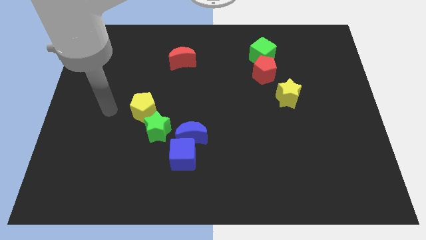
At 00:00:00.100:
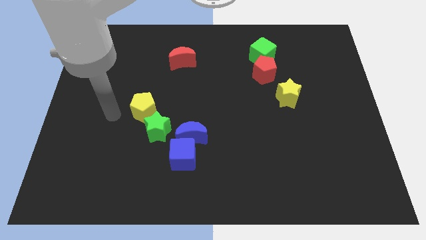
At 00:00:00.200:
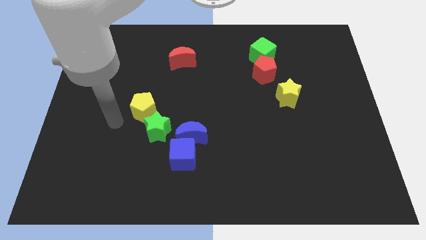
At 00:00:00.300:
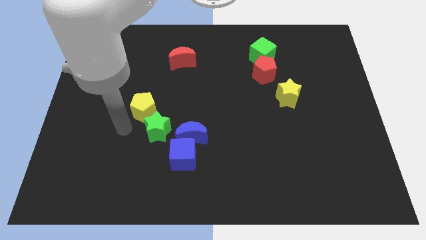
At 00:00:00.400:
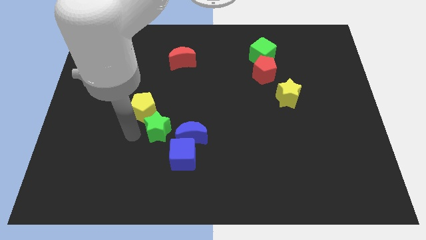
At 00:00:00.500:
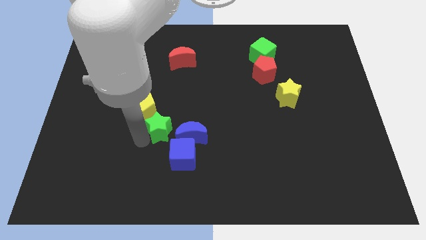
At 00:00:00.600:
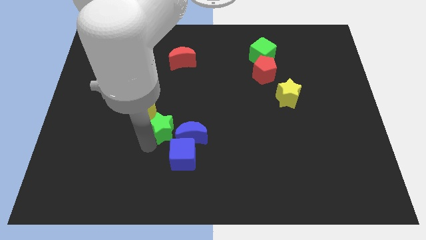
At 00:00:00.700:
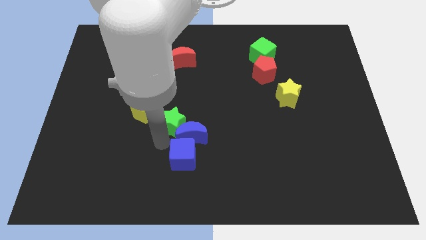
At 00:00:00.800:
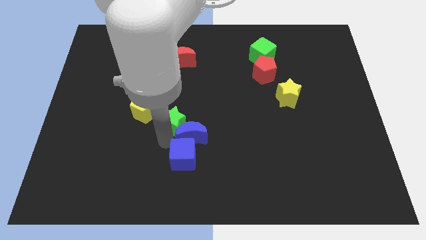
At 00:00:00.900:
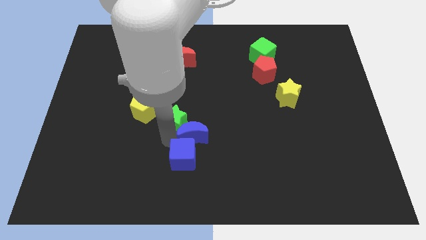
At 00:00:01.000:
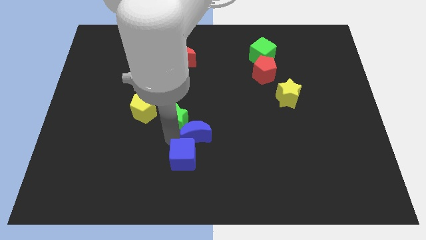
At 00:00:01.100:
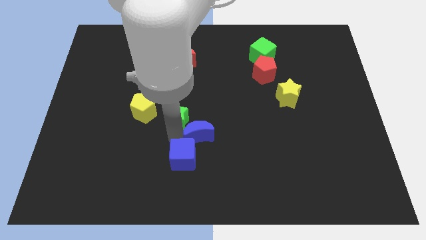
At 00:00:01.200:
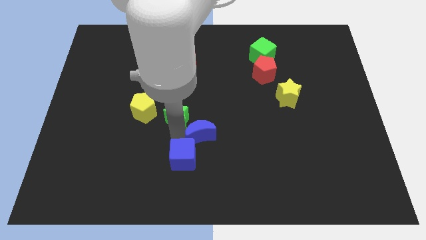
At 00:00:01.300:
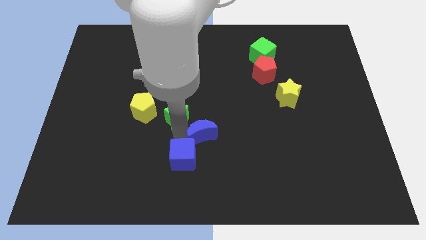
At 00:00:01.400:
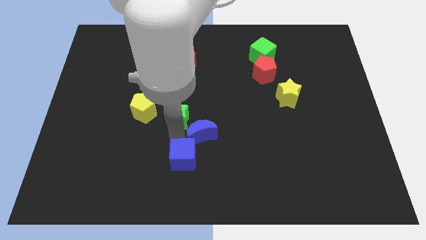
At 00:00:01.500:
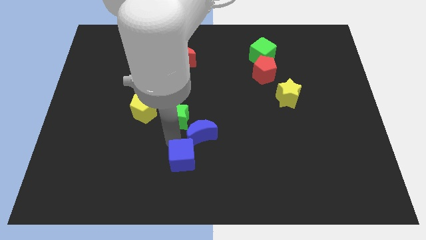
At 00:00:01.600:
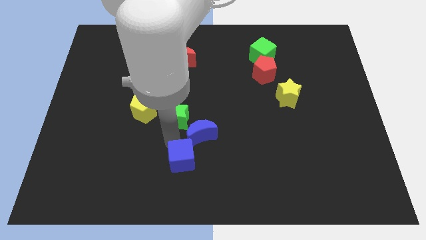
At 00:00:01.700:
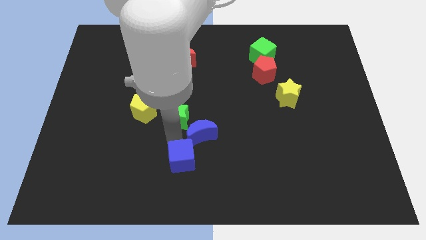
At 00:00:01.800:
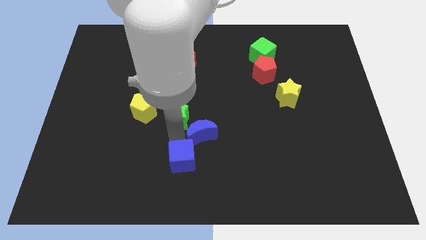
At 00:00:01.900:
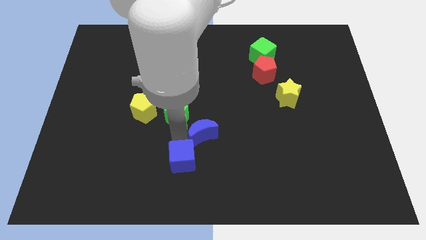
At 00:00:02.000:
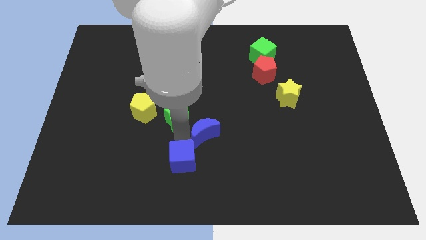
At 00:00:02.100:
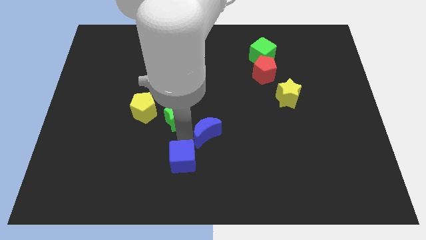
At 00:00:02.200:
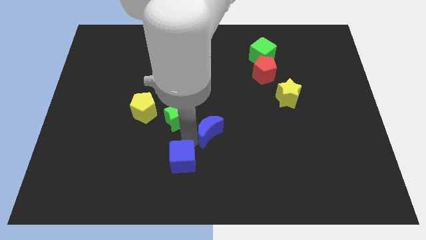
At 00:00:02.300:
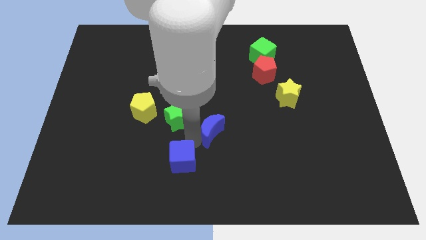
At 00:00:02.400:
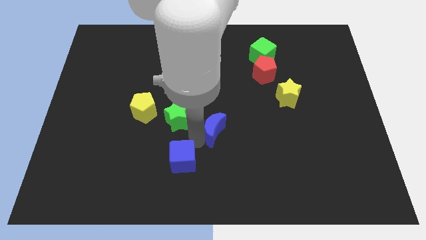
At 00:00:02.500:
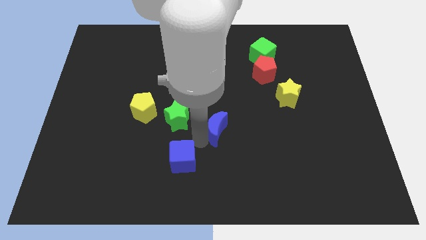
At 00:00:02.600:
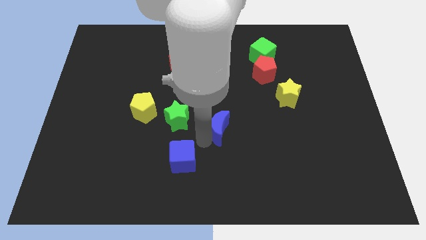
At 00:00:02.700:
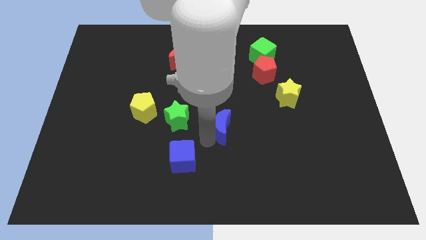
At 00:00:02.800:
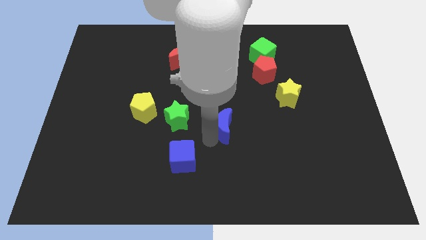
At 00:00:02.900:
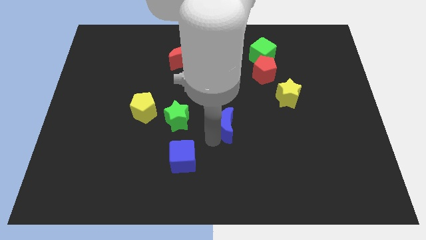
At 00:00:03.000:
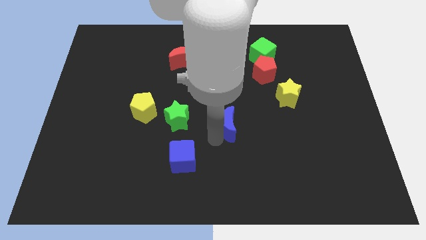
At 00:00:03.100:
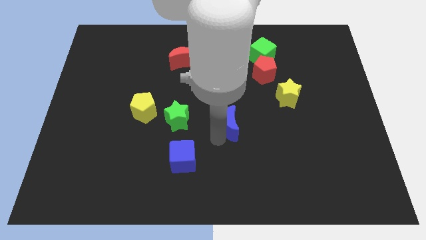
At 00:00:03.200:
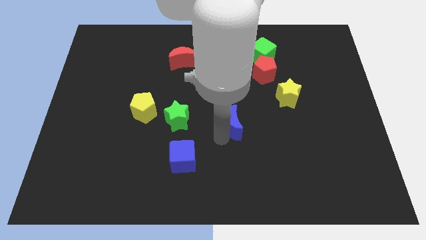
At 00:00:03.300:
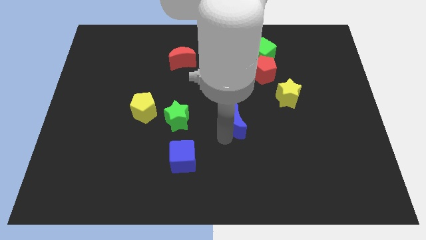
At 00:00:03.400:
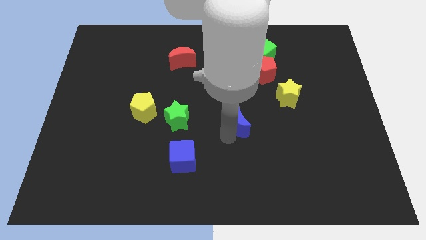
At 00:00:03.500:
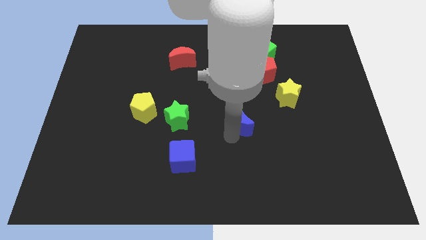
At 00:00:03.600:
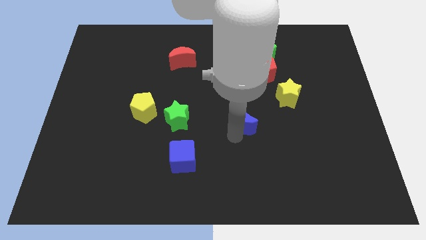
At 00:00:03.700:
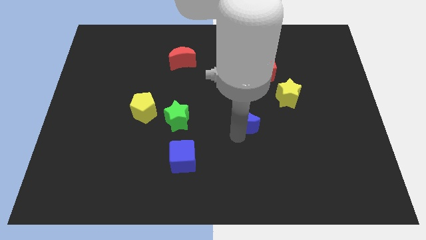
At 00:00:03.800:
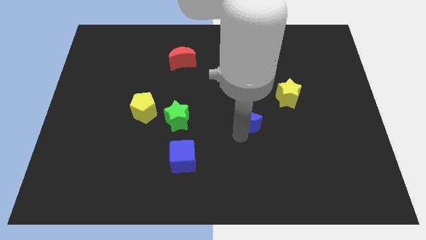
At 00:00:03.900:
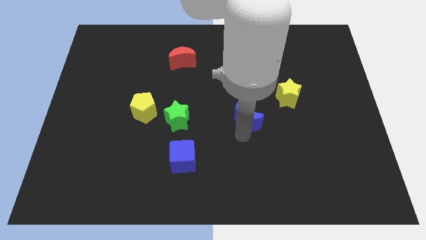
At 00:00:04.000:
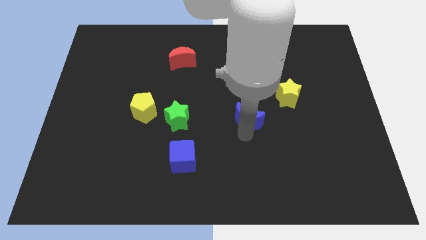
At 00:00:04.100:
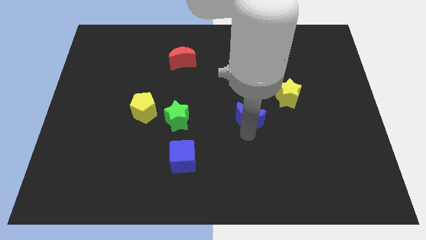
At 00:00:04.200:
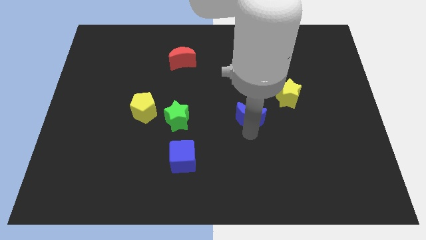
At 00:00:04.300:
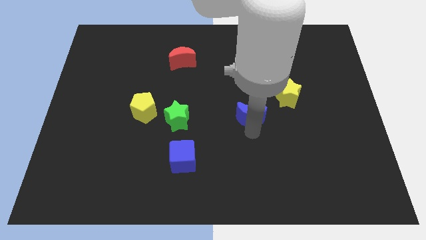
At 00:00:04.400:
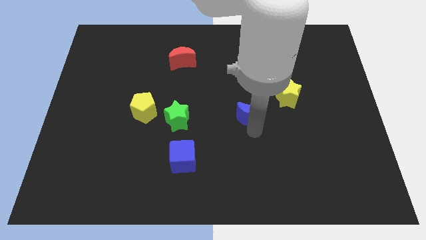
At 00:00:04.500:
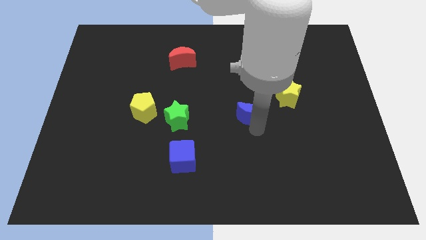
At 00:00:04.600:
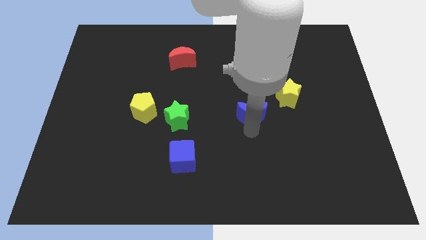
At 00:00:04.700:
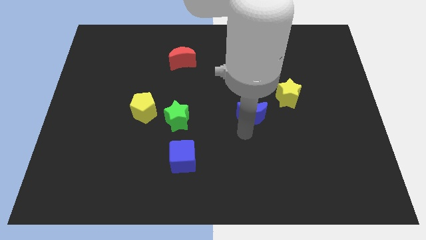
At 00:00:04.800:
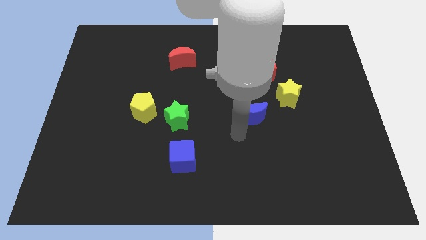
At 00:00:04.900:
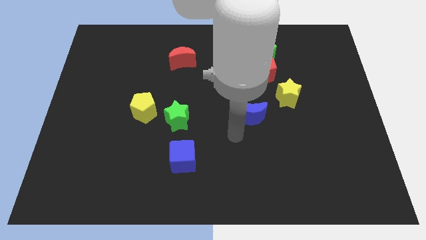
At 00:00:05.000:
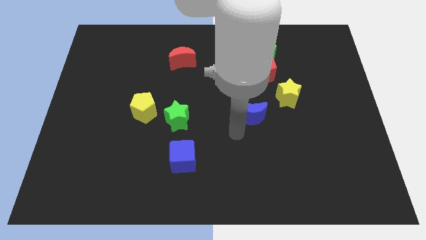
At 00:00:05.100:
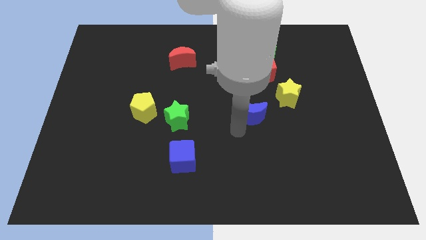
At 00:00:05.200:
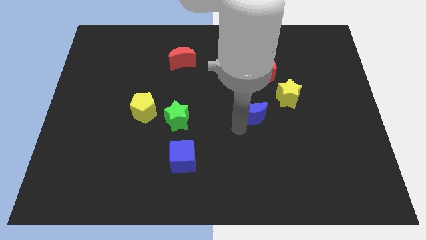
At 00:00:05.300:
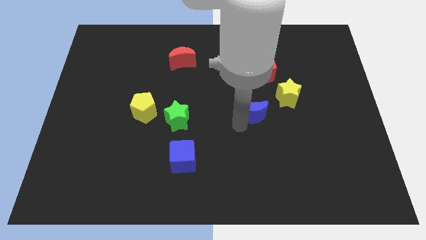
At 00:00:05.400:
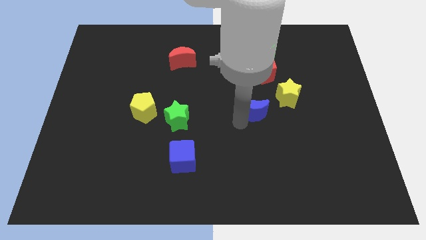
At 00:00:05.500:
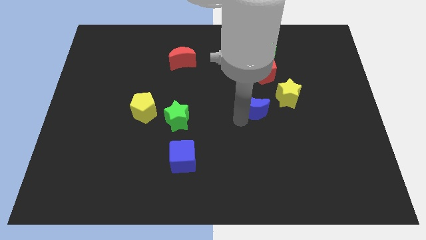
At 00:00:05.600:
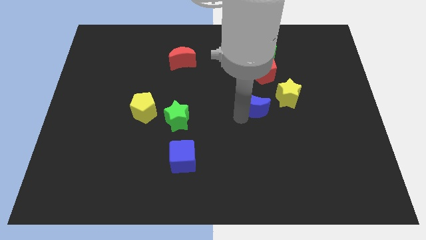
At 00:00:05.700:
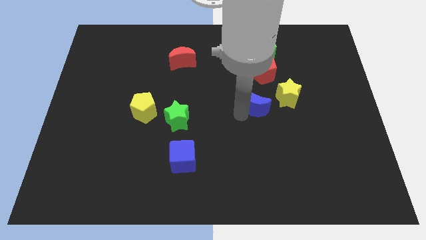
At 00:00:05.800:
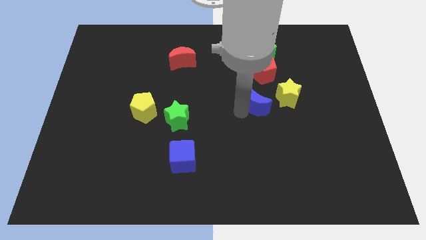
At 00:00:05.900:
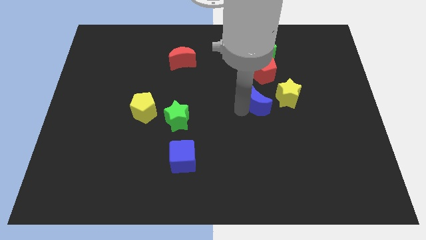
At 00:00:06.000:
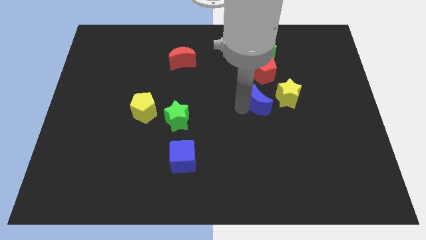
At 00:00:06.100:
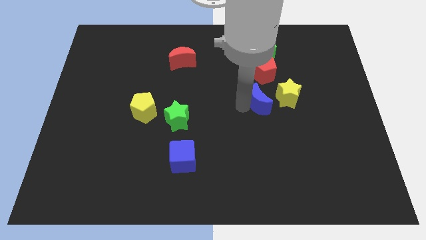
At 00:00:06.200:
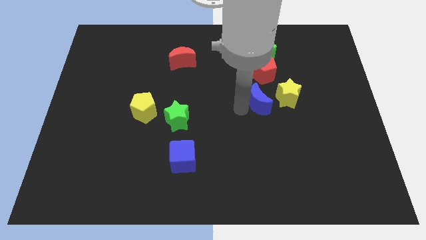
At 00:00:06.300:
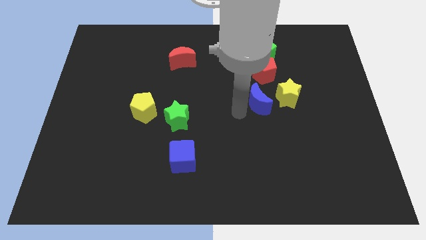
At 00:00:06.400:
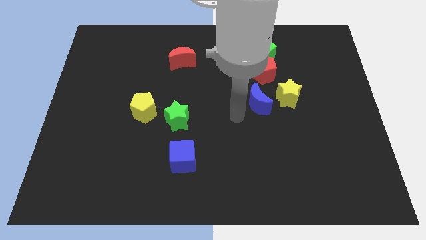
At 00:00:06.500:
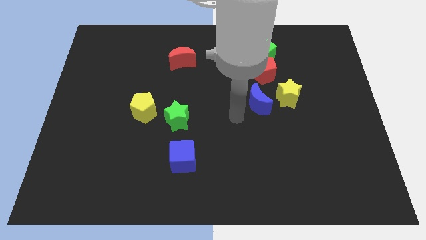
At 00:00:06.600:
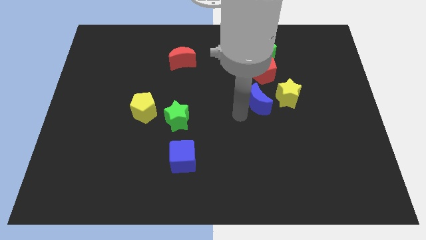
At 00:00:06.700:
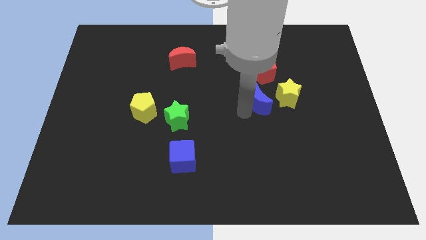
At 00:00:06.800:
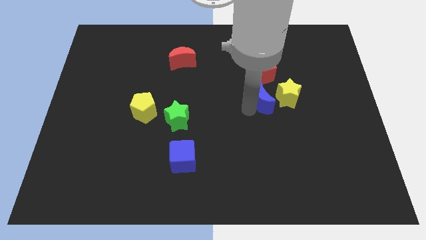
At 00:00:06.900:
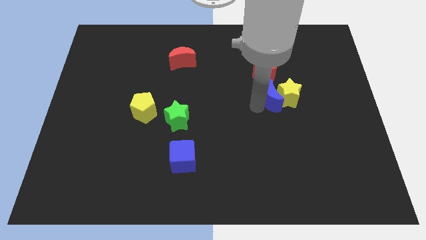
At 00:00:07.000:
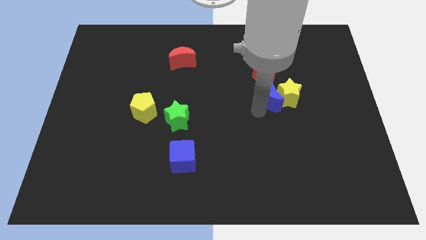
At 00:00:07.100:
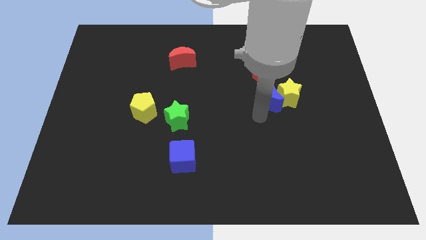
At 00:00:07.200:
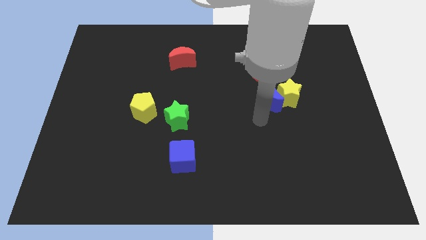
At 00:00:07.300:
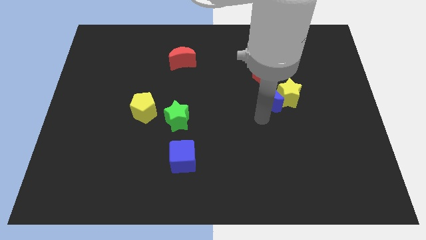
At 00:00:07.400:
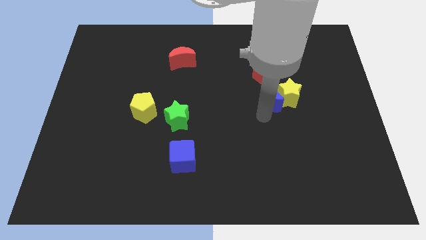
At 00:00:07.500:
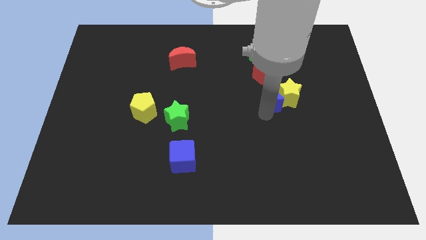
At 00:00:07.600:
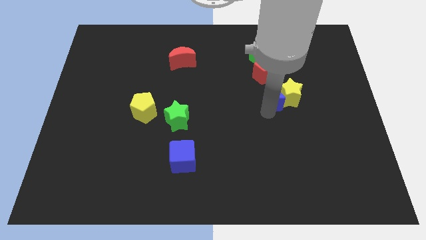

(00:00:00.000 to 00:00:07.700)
push the blue moon upwards and right diagonally

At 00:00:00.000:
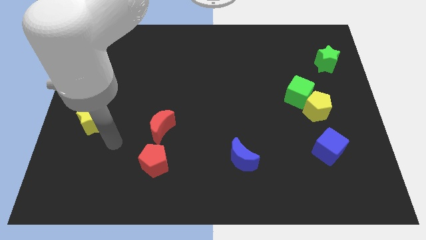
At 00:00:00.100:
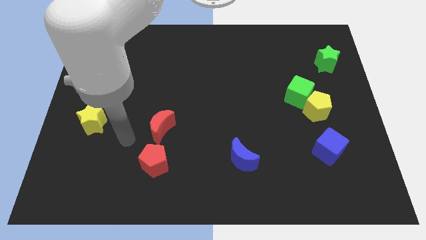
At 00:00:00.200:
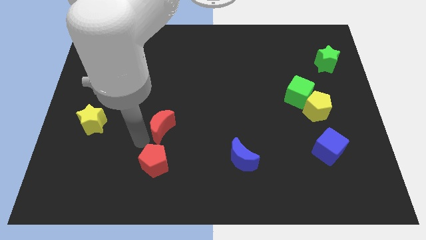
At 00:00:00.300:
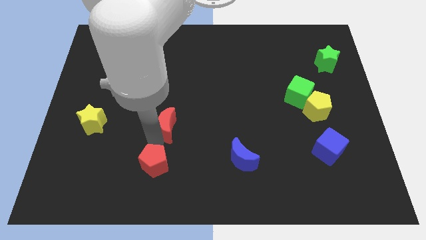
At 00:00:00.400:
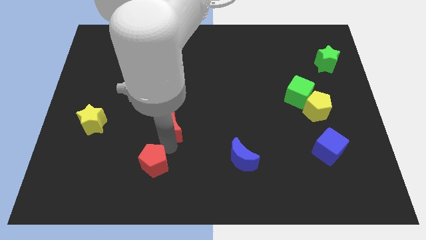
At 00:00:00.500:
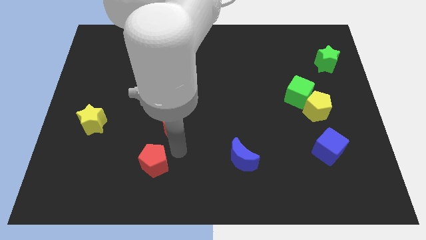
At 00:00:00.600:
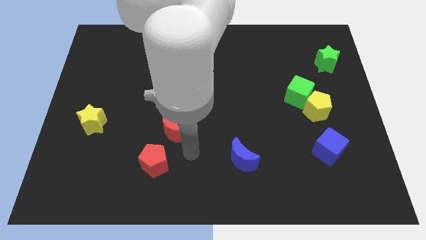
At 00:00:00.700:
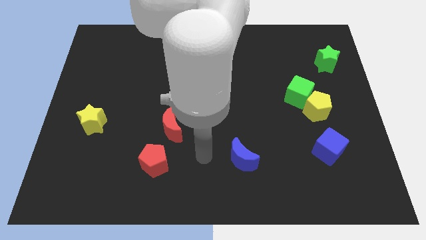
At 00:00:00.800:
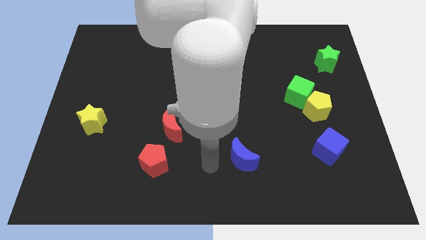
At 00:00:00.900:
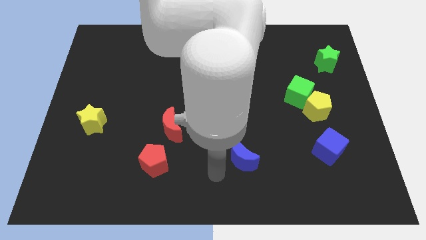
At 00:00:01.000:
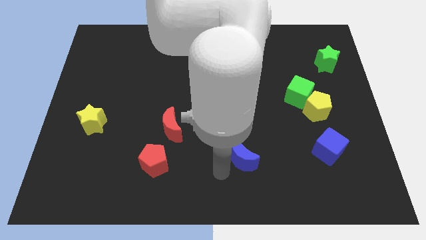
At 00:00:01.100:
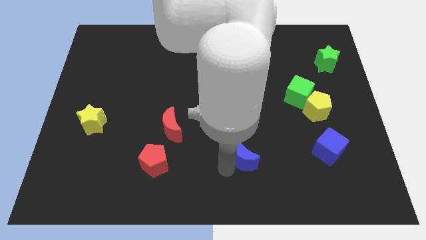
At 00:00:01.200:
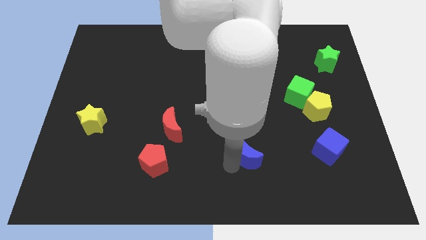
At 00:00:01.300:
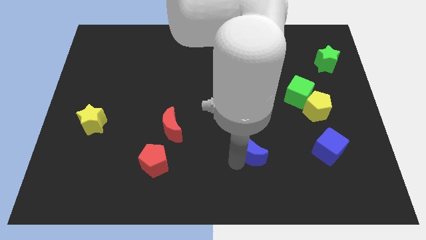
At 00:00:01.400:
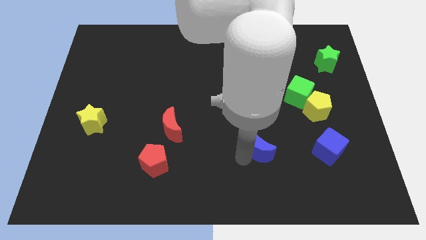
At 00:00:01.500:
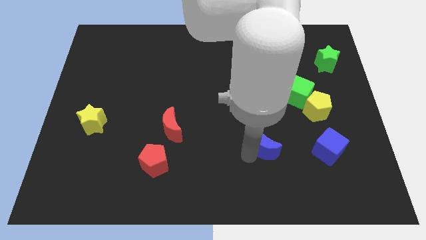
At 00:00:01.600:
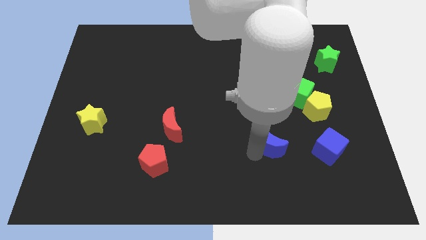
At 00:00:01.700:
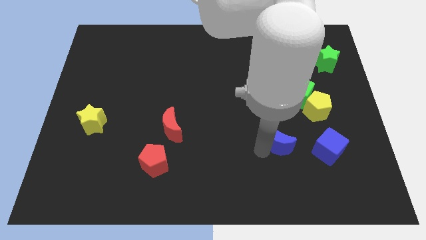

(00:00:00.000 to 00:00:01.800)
push the blue moon slightly upwards and to the right
